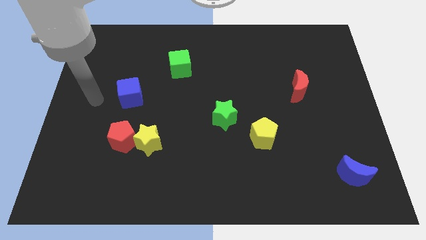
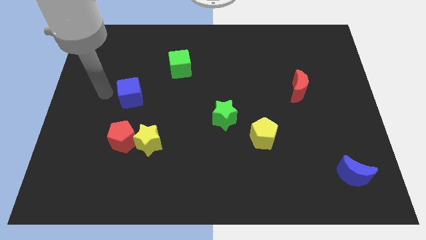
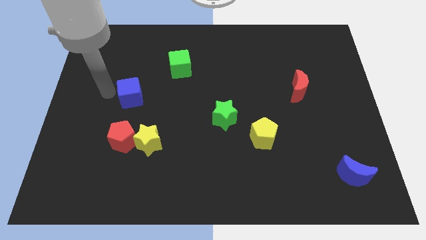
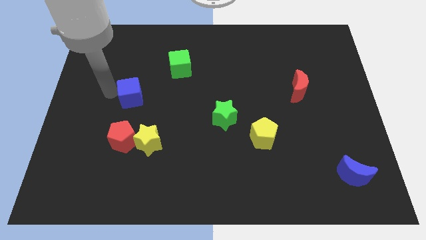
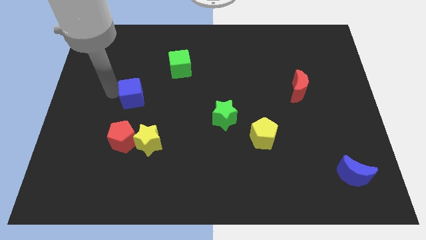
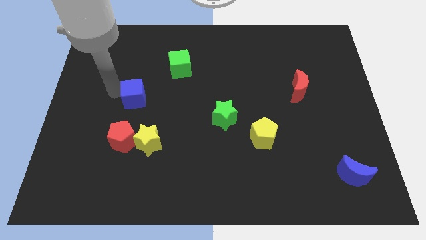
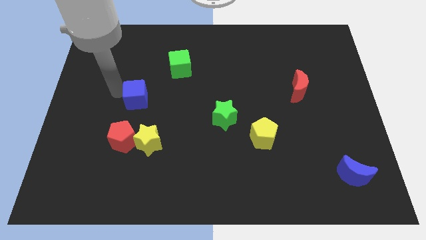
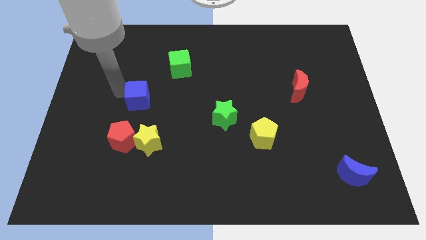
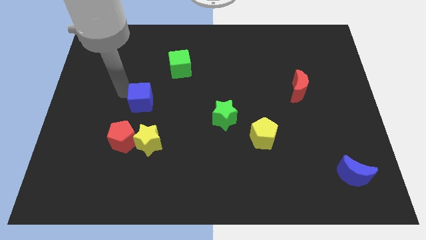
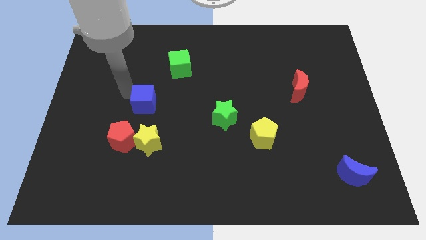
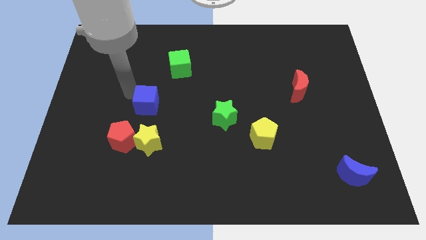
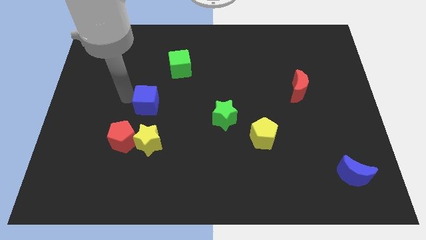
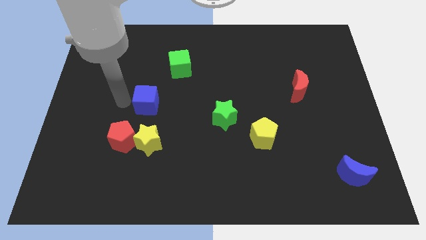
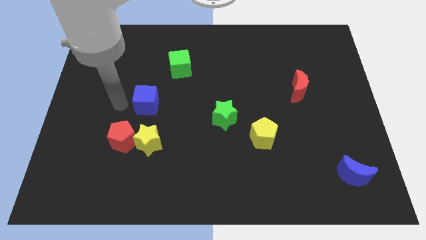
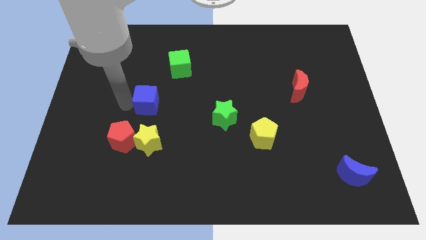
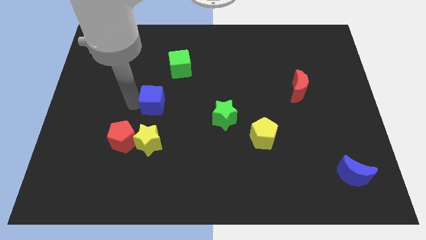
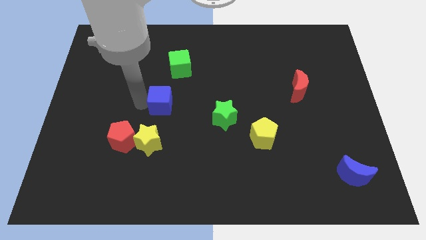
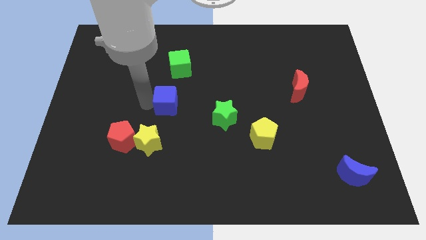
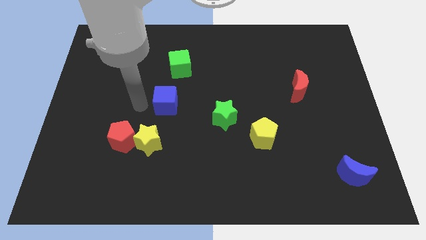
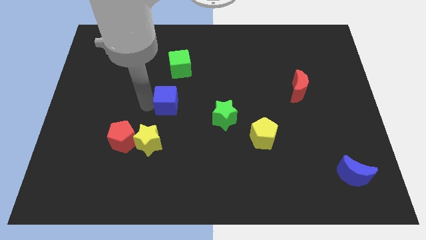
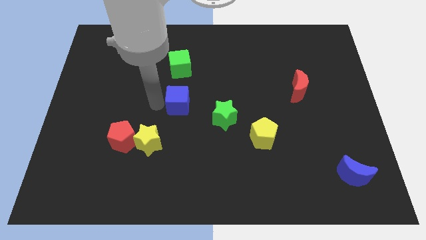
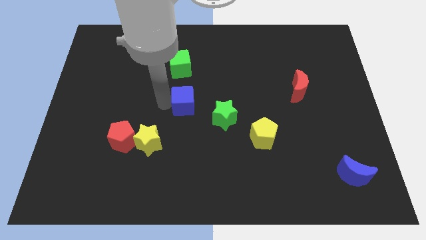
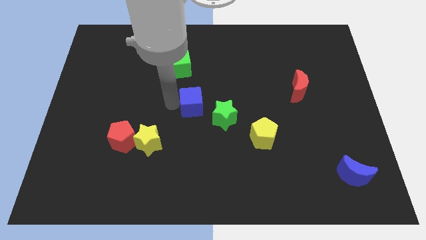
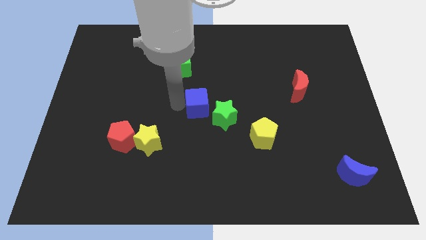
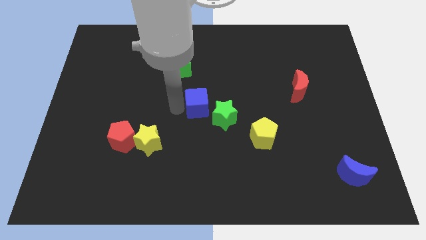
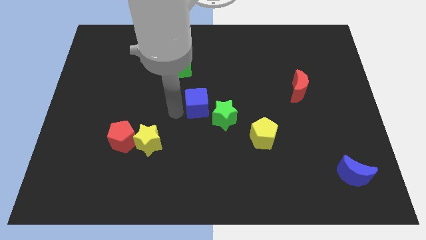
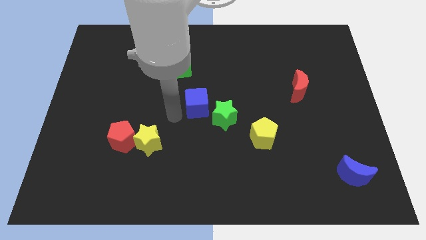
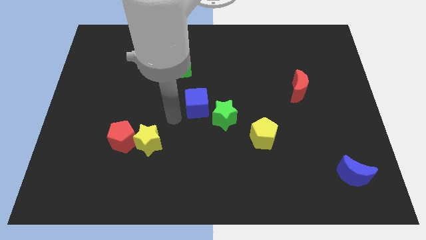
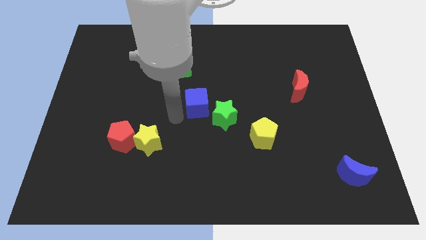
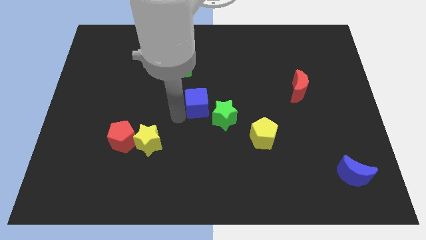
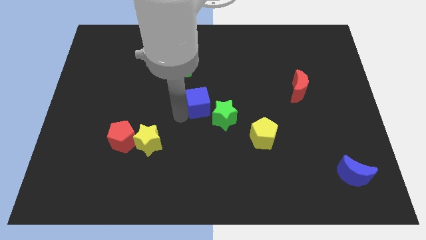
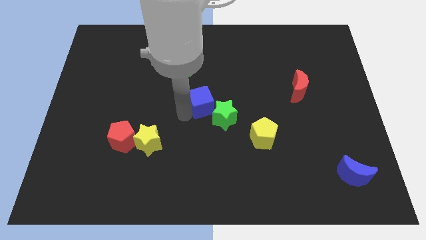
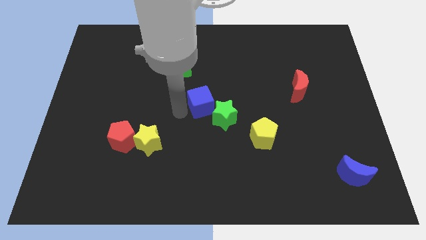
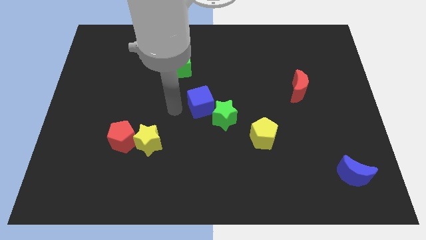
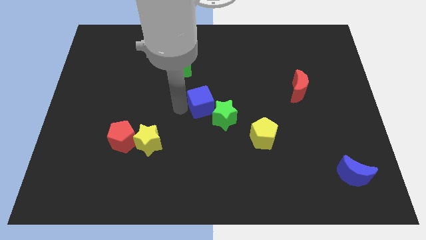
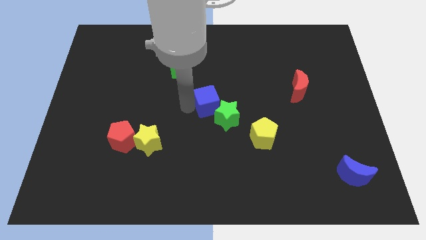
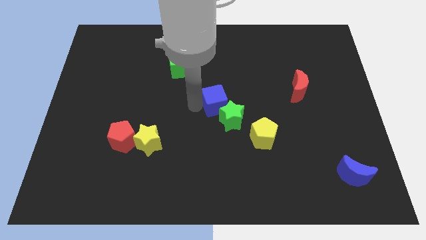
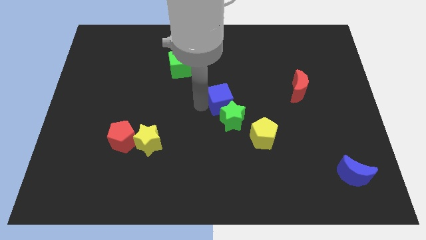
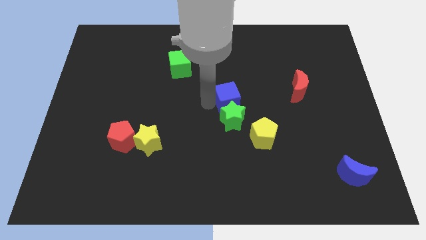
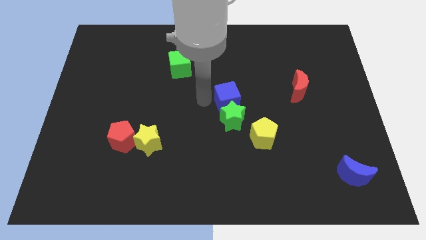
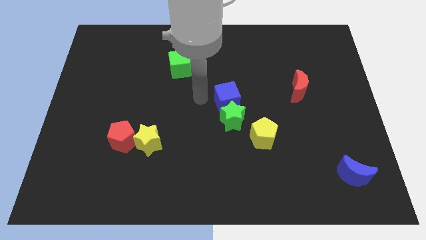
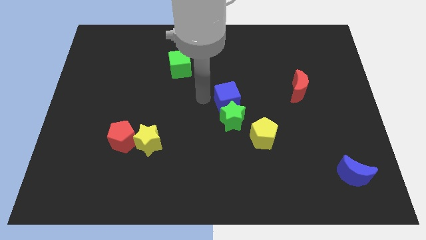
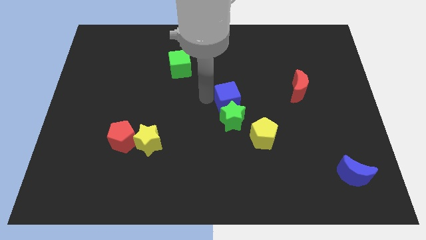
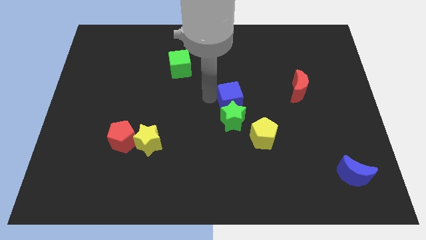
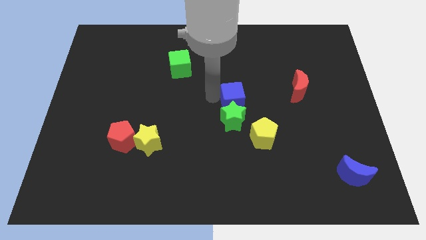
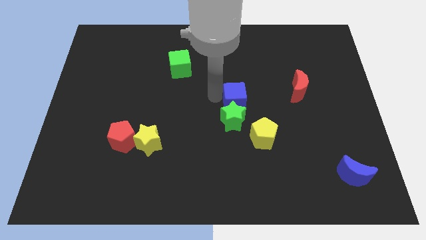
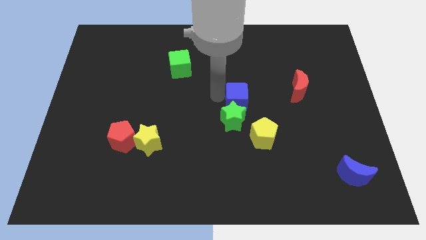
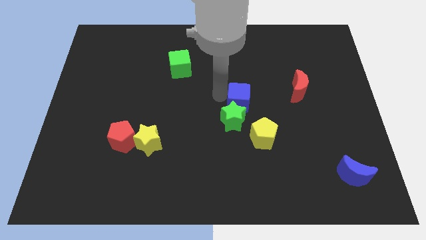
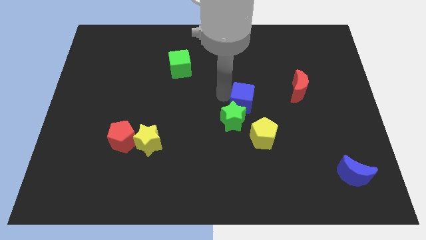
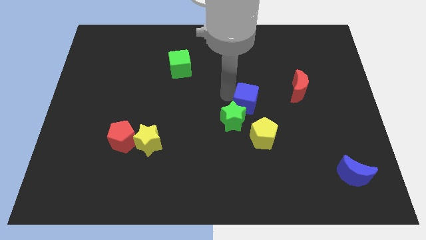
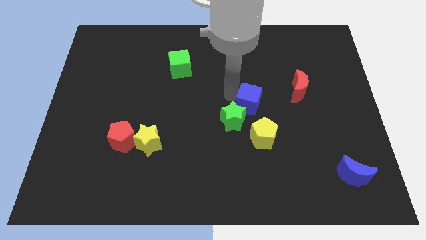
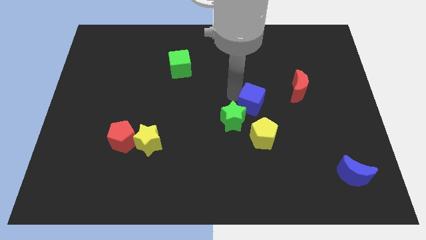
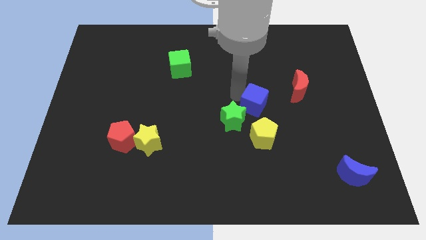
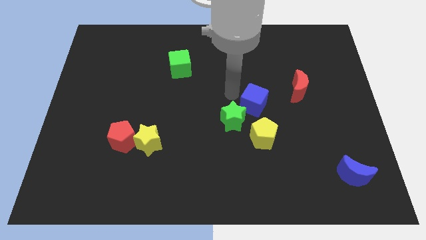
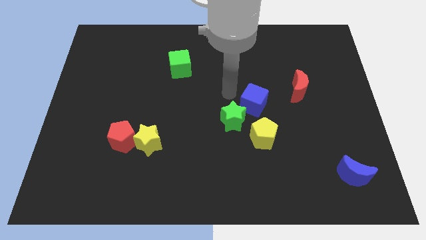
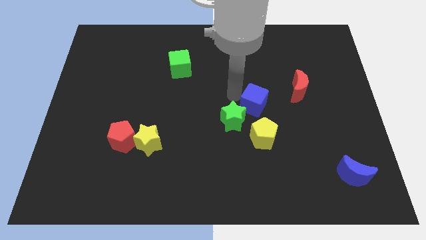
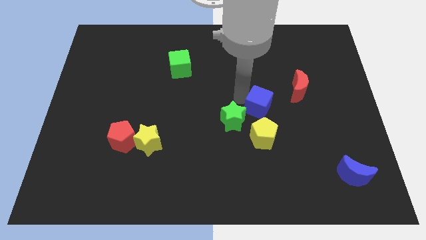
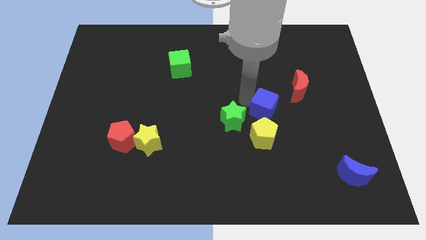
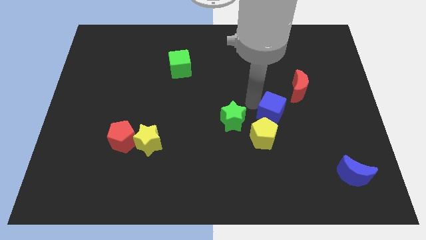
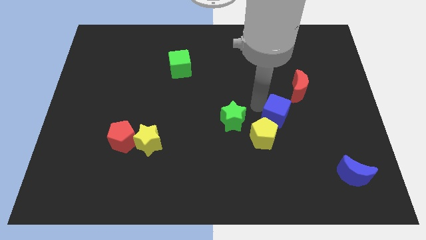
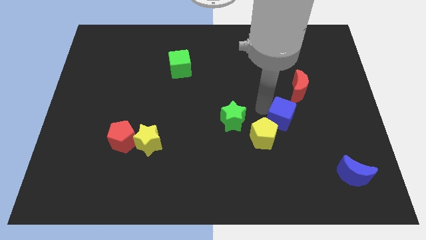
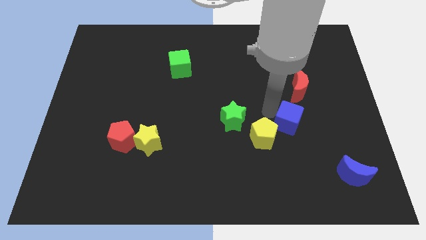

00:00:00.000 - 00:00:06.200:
move the blue cube to the bottom of the red moon

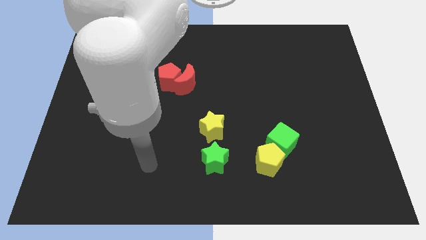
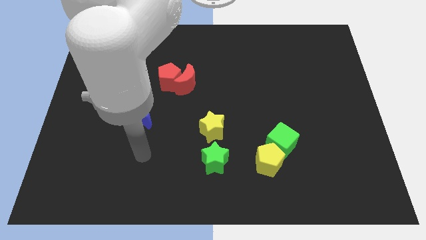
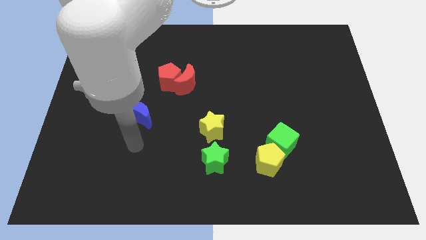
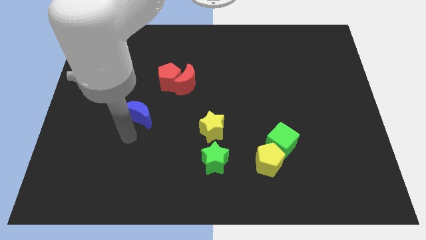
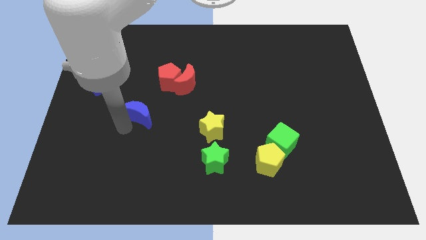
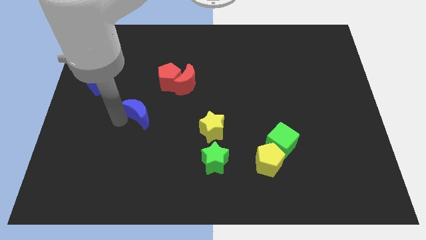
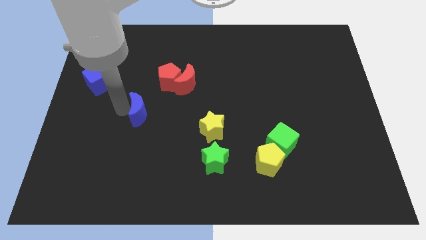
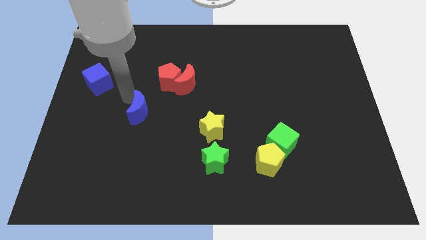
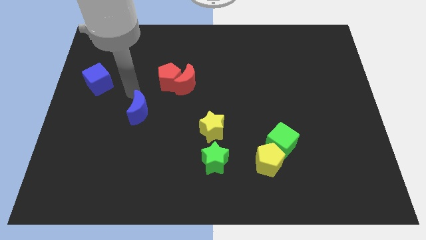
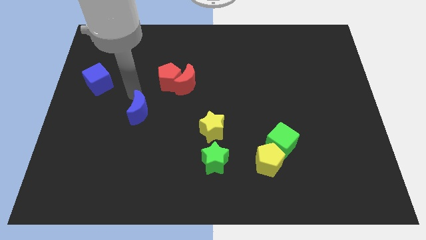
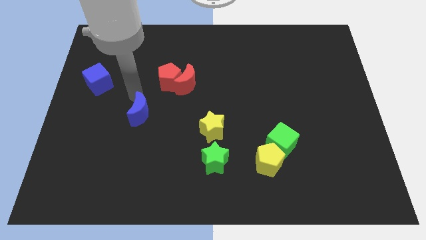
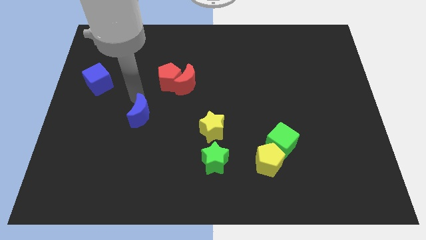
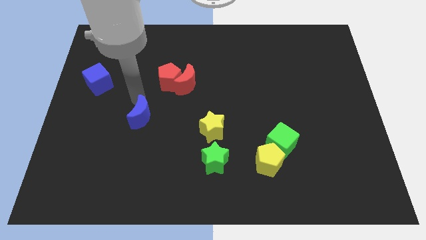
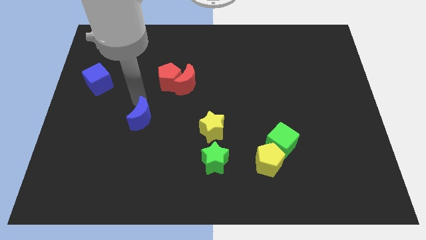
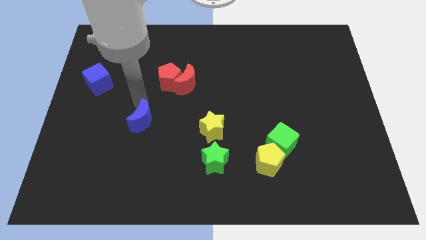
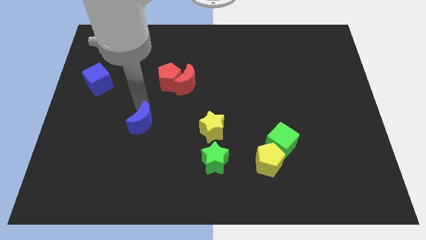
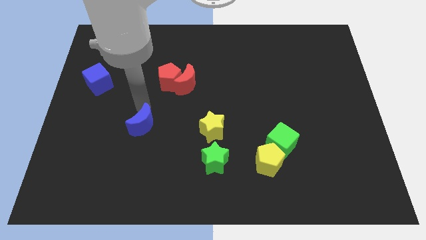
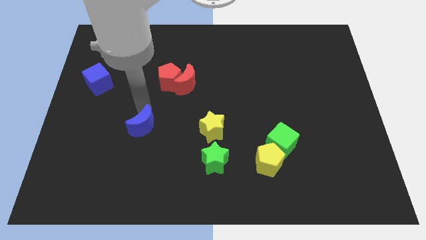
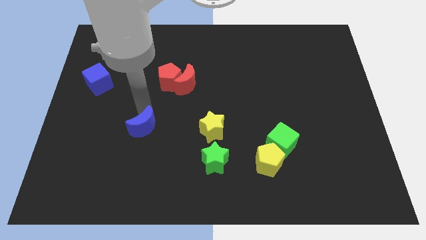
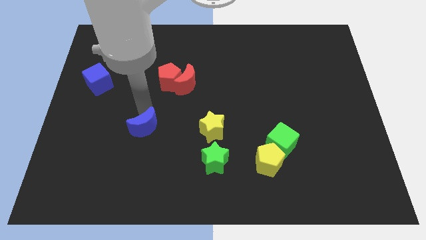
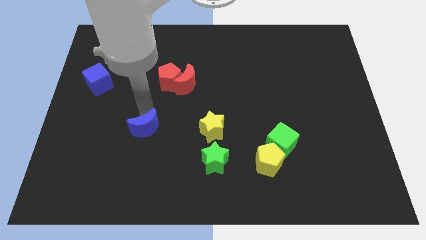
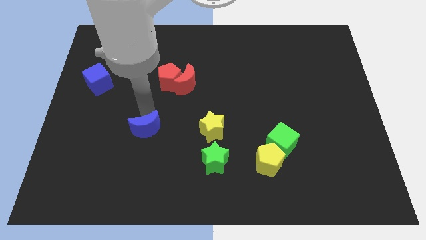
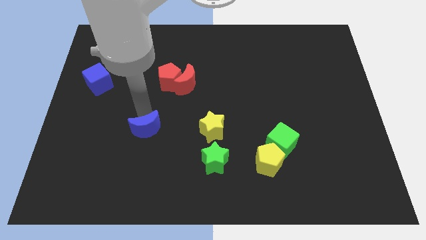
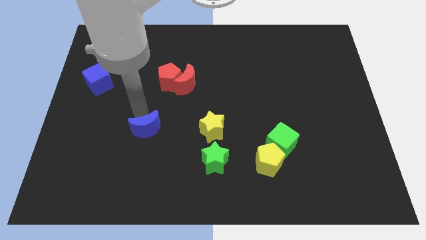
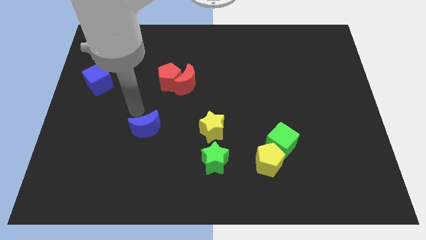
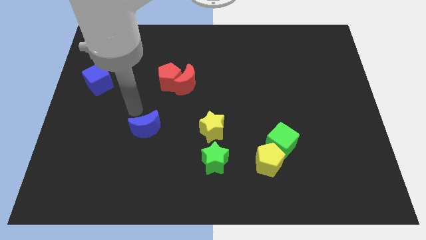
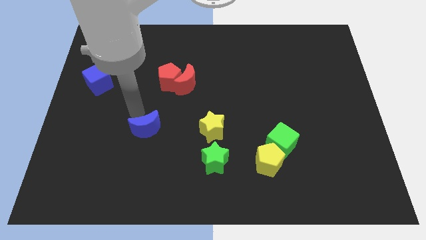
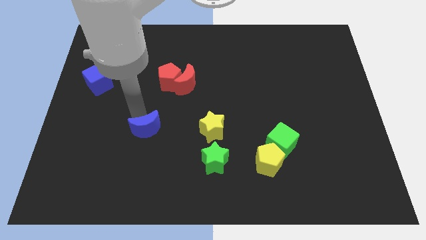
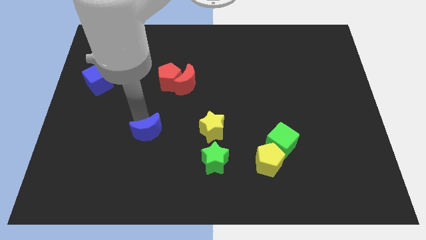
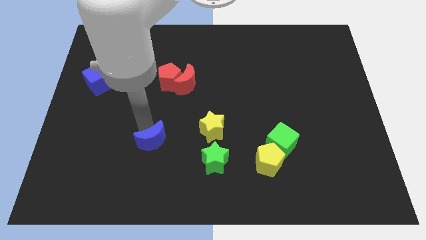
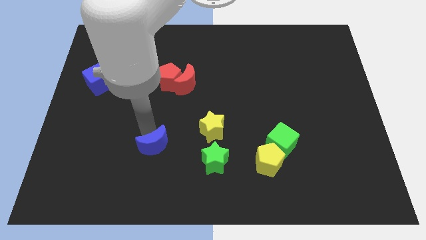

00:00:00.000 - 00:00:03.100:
move the blue moon to the left side of the green star
